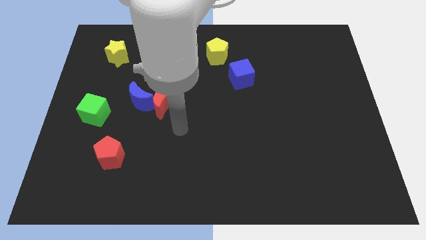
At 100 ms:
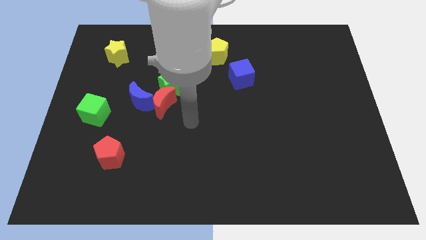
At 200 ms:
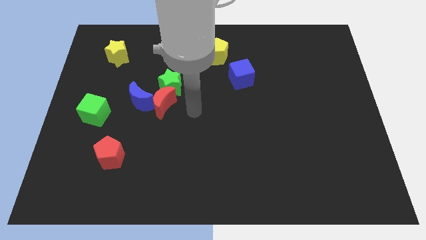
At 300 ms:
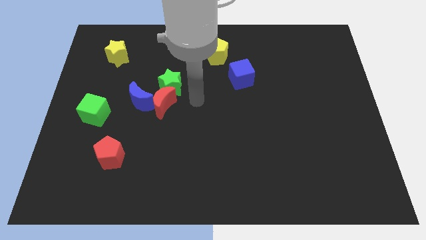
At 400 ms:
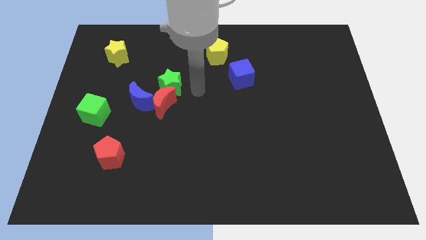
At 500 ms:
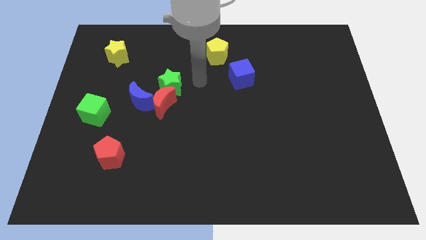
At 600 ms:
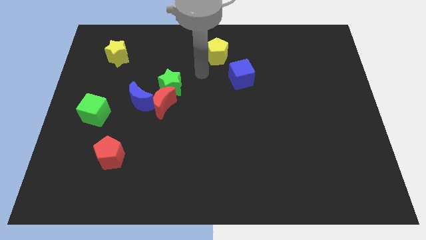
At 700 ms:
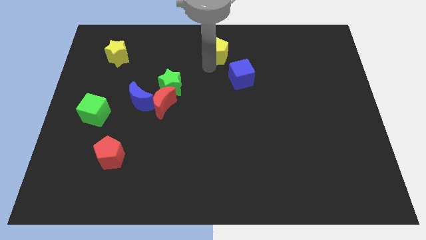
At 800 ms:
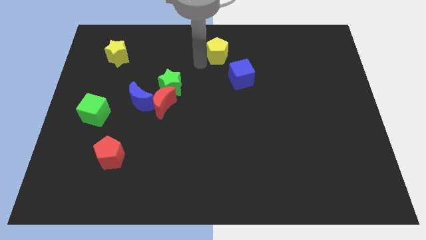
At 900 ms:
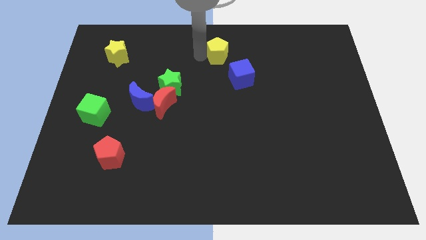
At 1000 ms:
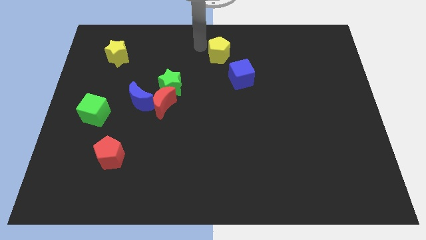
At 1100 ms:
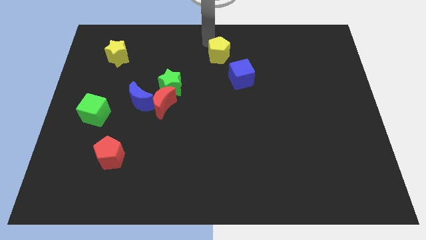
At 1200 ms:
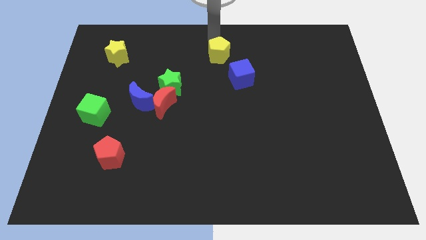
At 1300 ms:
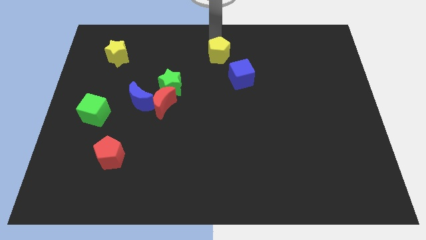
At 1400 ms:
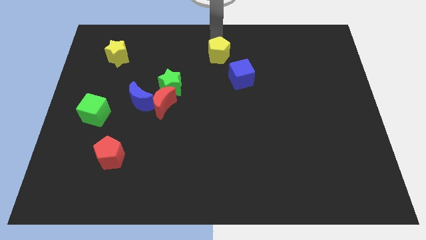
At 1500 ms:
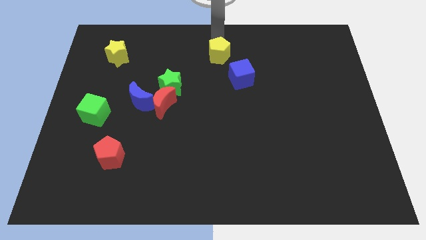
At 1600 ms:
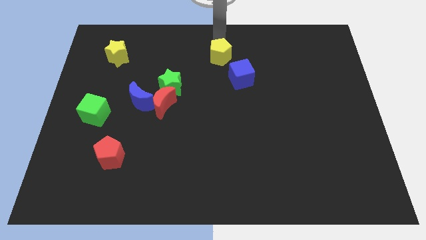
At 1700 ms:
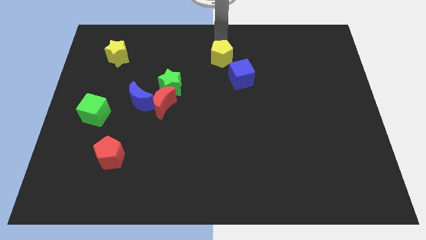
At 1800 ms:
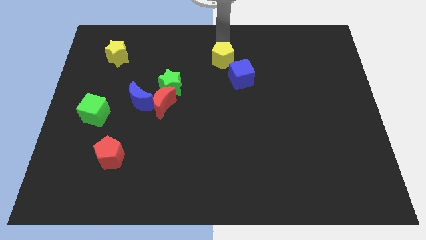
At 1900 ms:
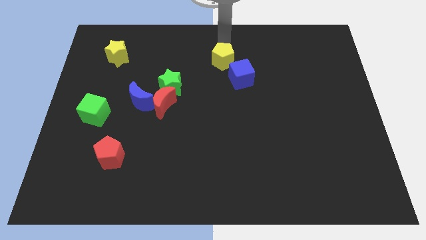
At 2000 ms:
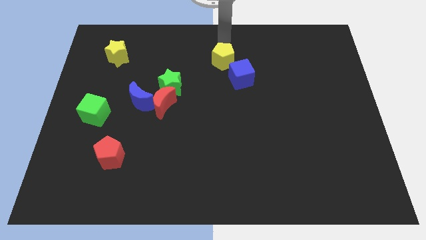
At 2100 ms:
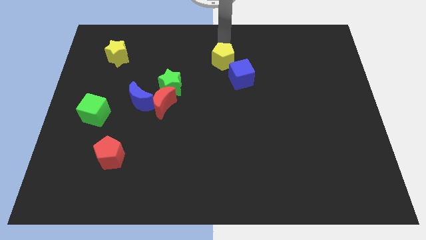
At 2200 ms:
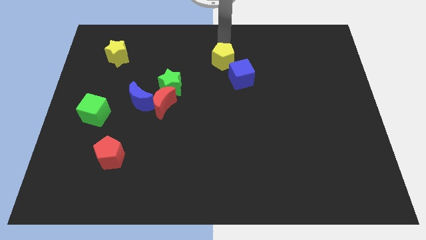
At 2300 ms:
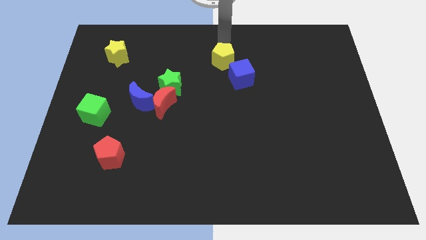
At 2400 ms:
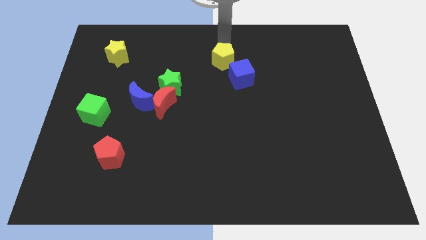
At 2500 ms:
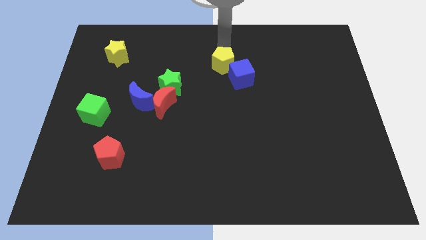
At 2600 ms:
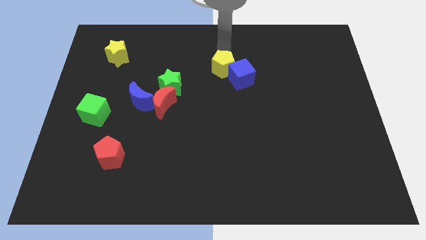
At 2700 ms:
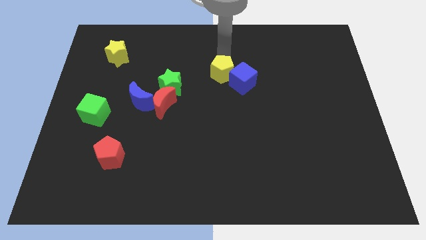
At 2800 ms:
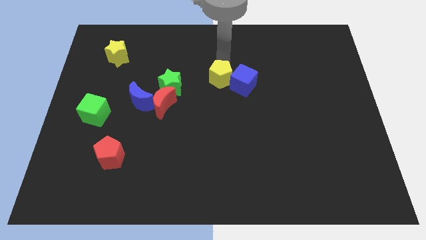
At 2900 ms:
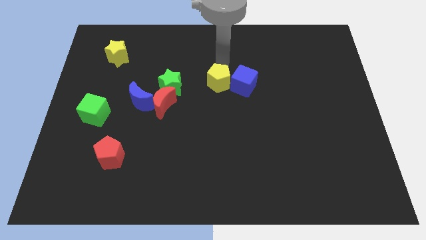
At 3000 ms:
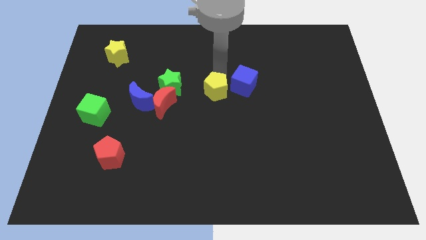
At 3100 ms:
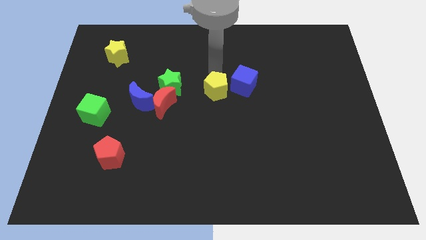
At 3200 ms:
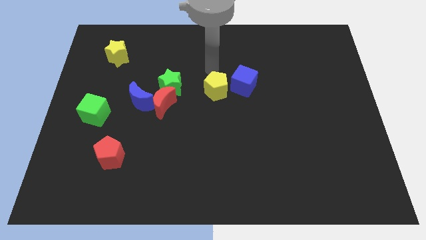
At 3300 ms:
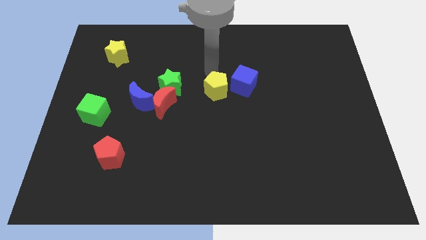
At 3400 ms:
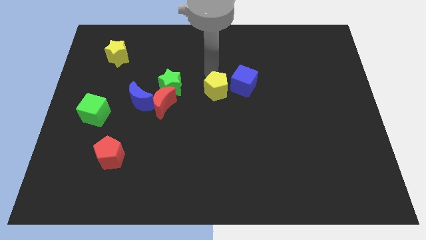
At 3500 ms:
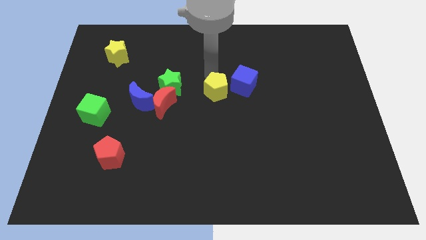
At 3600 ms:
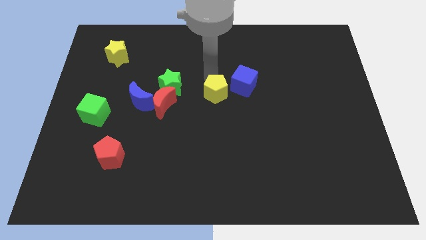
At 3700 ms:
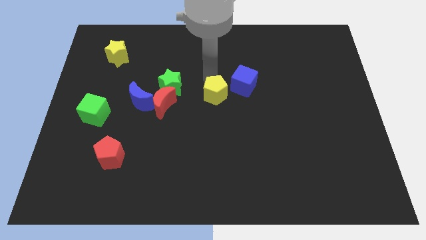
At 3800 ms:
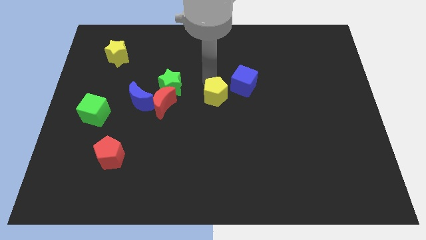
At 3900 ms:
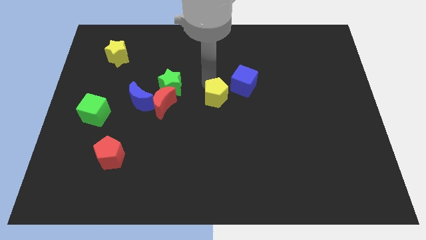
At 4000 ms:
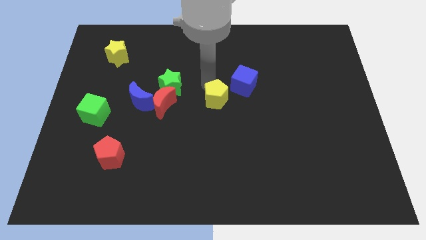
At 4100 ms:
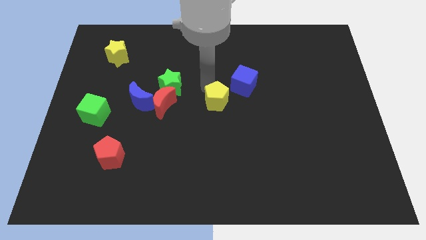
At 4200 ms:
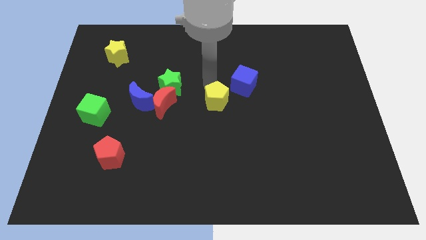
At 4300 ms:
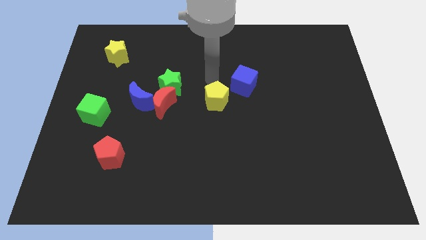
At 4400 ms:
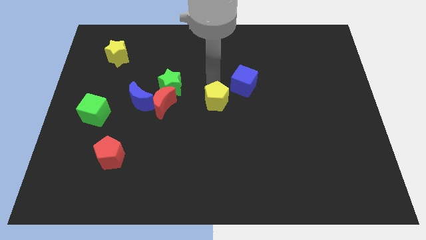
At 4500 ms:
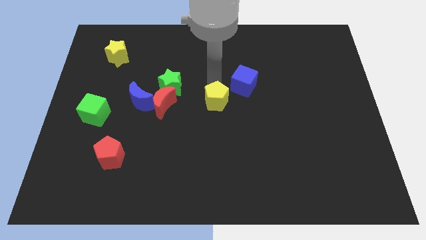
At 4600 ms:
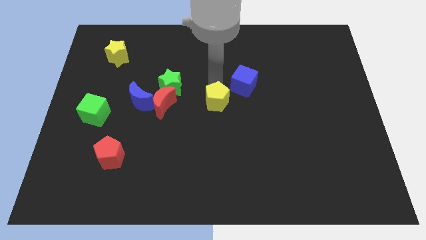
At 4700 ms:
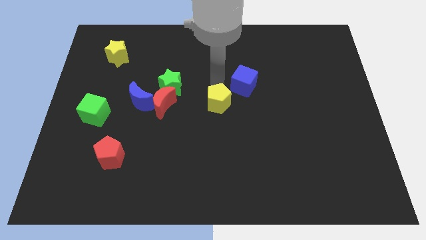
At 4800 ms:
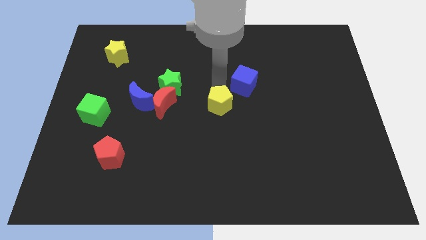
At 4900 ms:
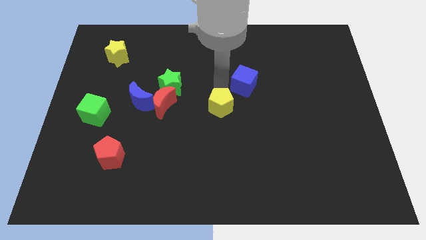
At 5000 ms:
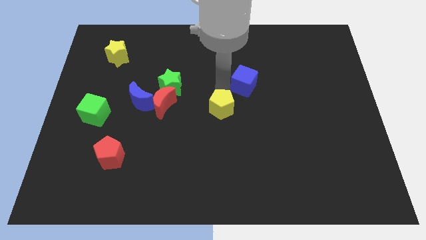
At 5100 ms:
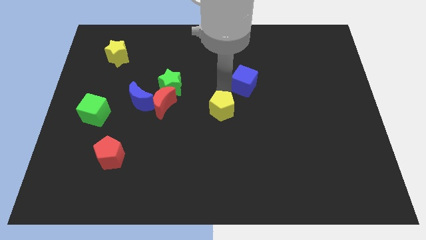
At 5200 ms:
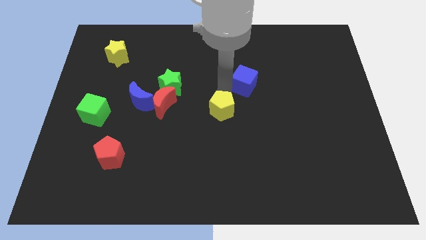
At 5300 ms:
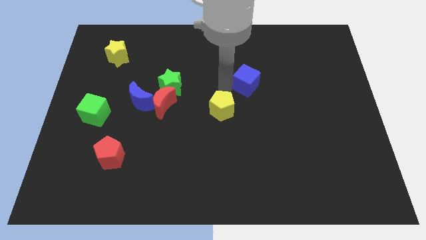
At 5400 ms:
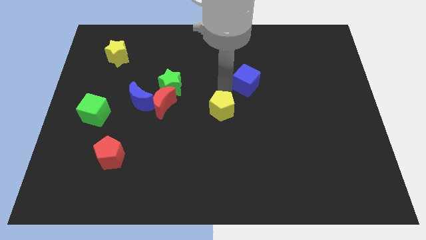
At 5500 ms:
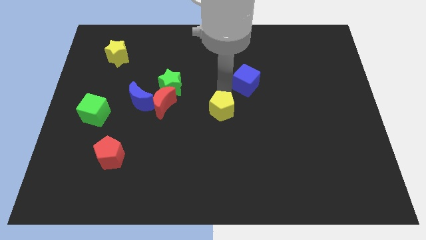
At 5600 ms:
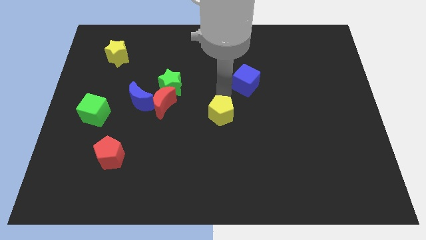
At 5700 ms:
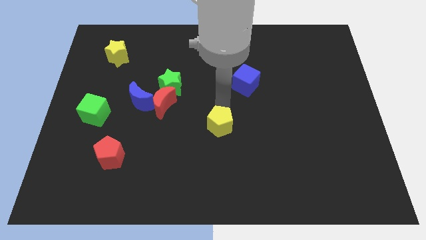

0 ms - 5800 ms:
move the yellow pentagon downwards

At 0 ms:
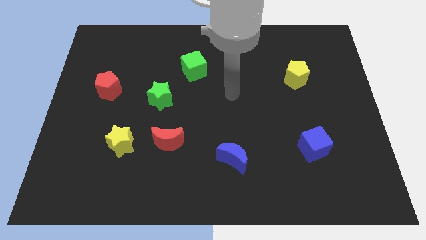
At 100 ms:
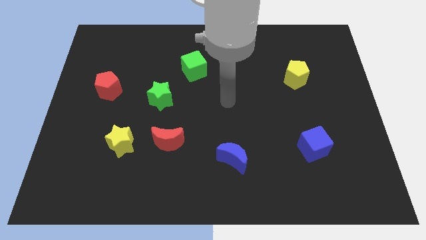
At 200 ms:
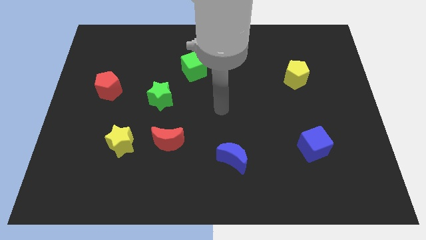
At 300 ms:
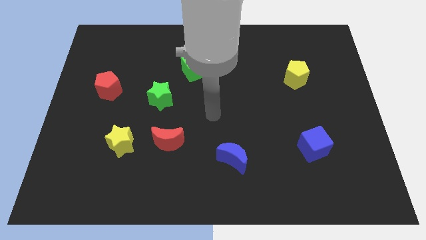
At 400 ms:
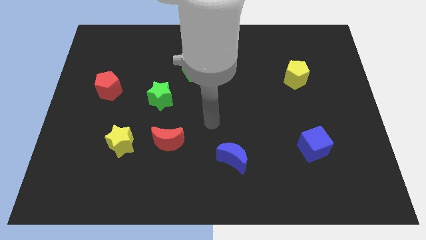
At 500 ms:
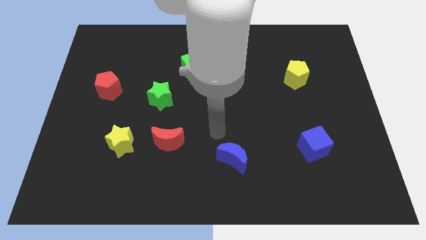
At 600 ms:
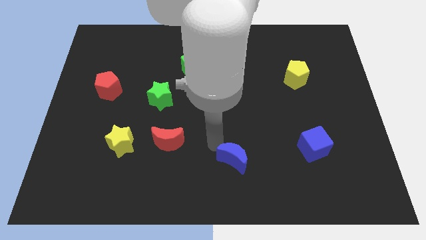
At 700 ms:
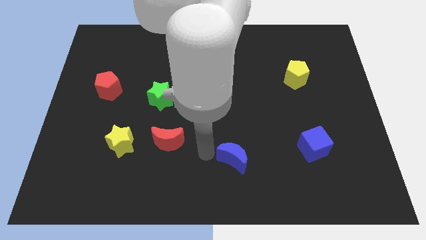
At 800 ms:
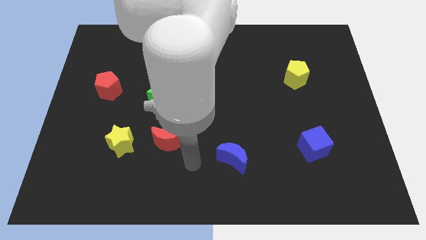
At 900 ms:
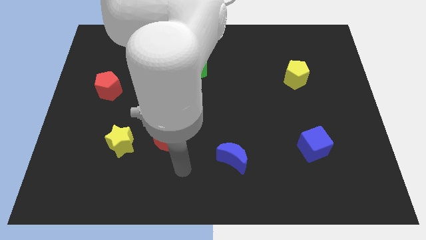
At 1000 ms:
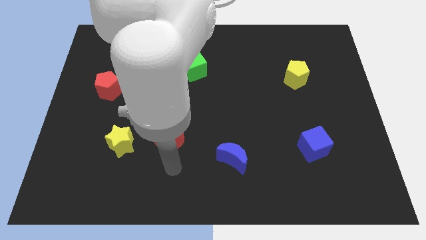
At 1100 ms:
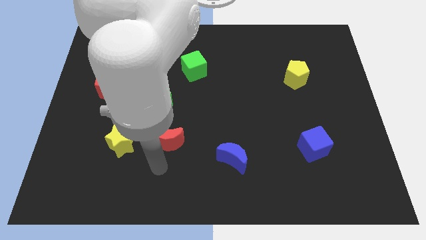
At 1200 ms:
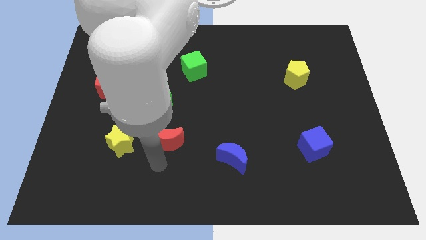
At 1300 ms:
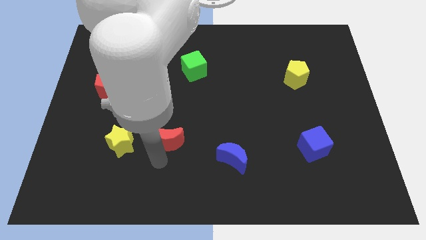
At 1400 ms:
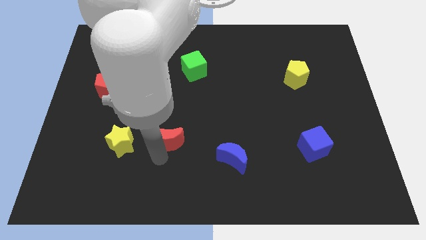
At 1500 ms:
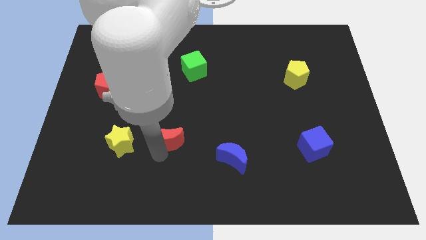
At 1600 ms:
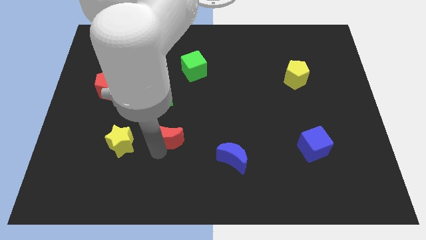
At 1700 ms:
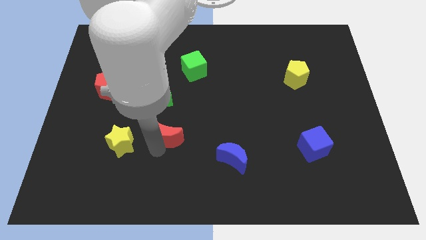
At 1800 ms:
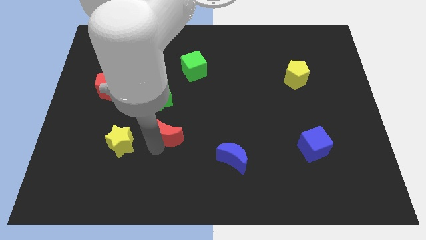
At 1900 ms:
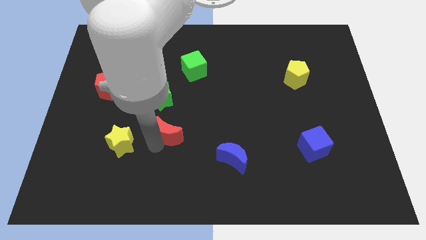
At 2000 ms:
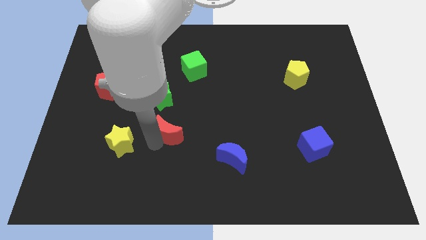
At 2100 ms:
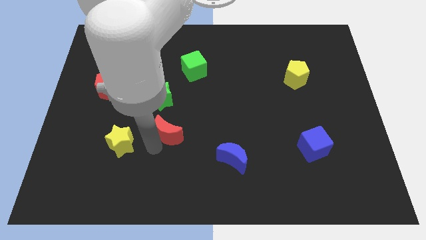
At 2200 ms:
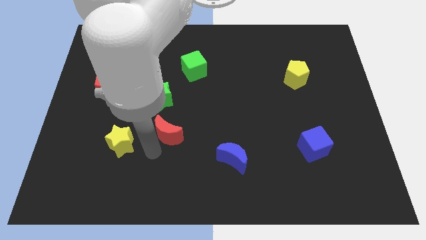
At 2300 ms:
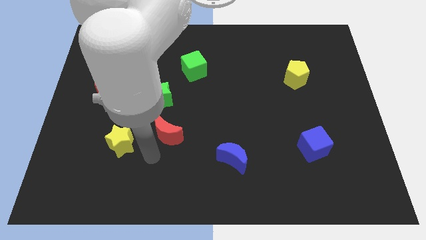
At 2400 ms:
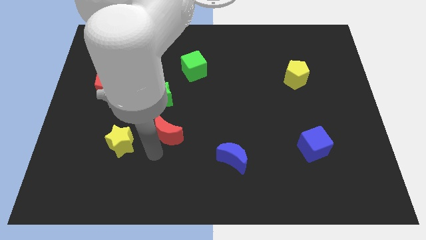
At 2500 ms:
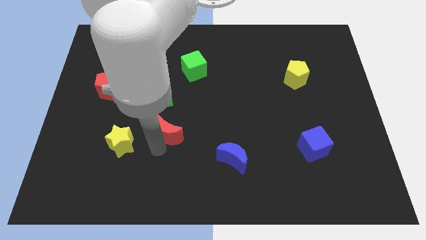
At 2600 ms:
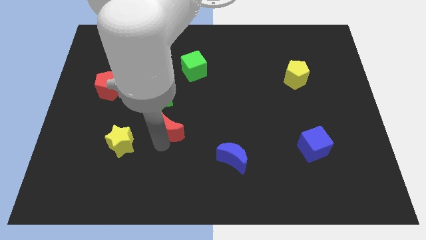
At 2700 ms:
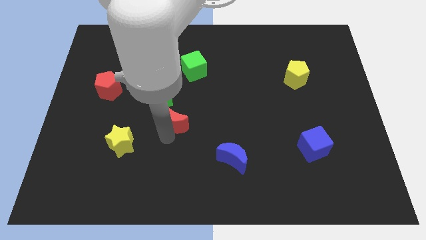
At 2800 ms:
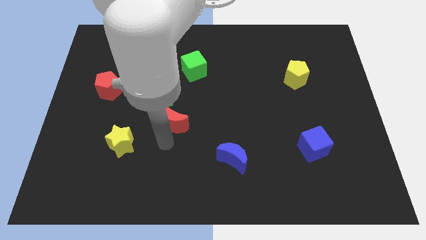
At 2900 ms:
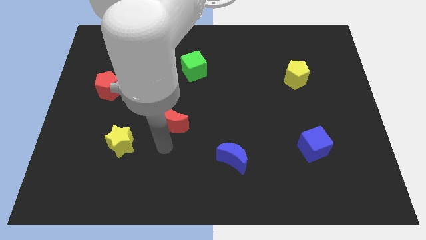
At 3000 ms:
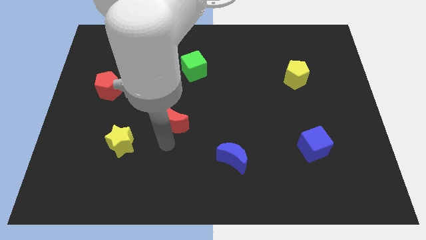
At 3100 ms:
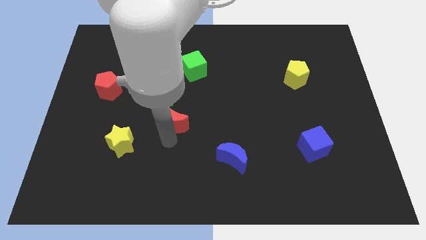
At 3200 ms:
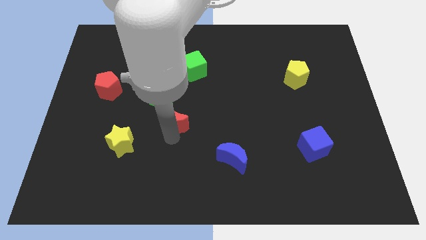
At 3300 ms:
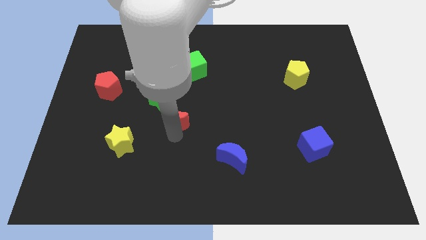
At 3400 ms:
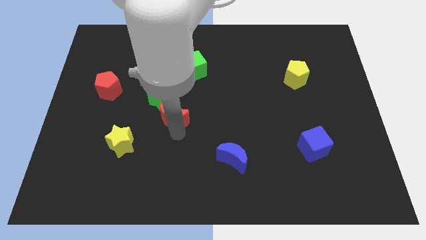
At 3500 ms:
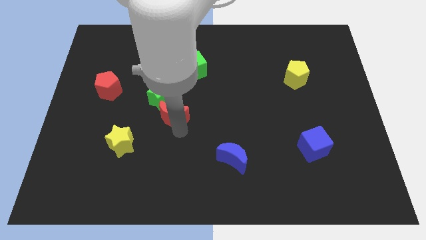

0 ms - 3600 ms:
push the red moon somewhat upwards
